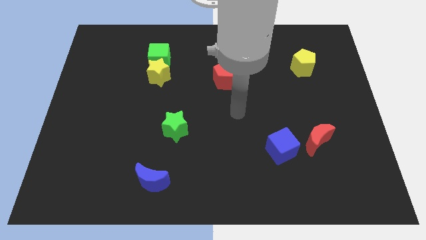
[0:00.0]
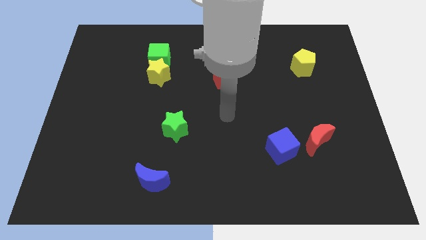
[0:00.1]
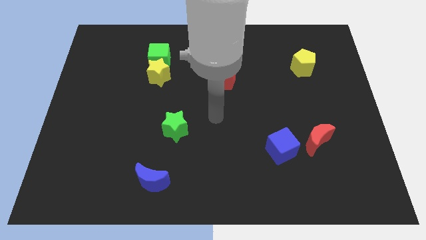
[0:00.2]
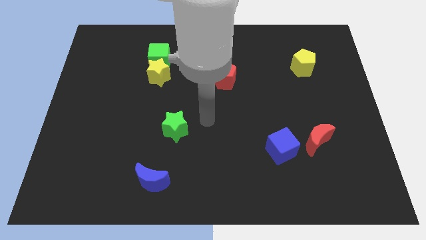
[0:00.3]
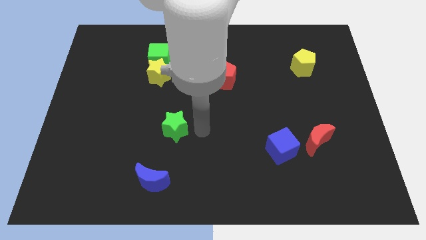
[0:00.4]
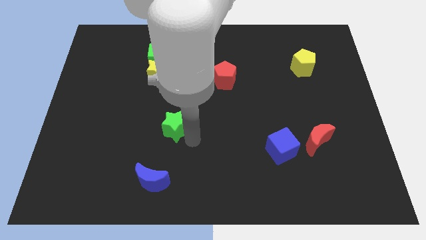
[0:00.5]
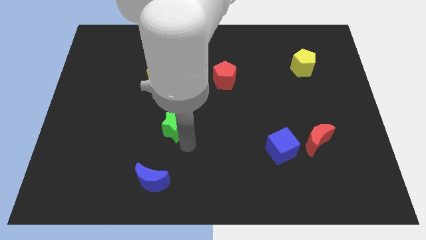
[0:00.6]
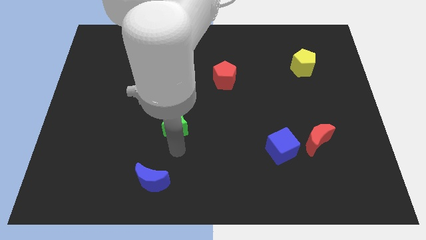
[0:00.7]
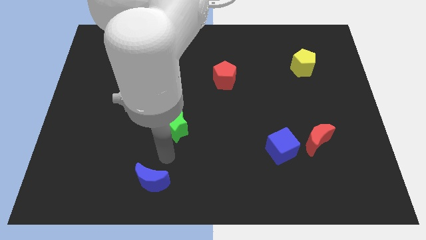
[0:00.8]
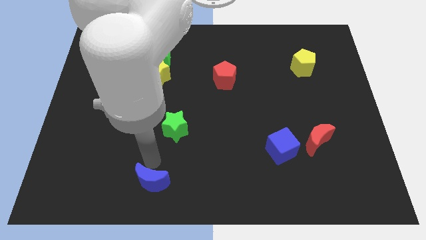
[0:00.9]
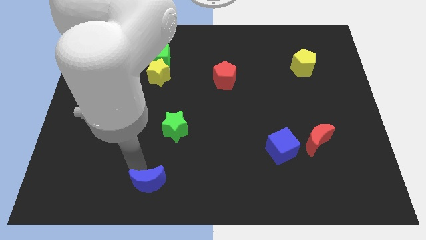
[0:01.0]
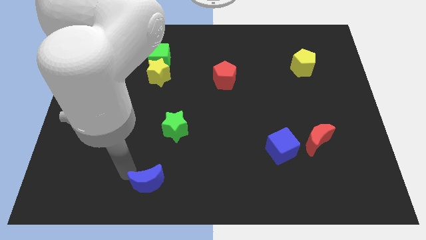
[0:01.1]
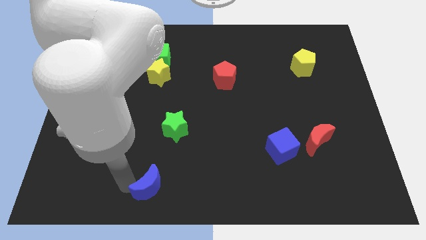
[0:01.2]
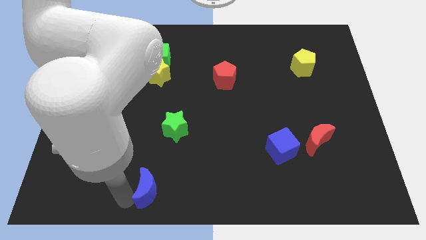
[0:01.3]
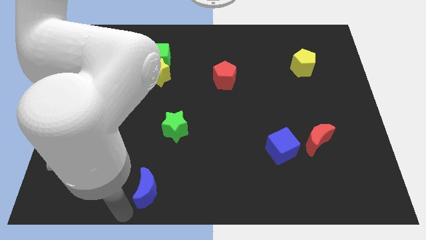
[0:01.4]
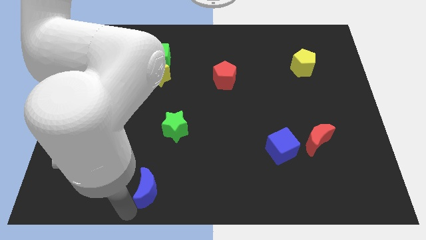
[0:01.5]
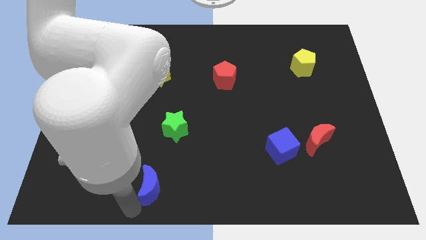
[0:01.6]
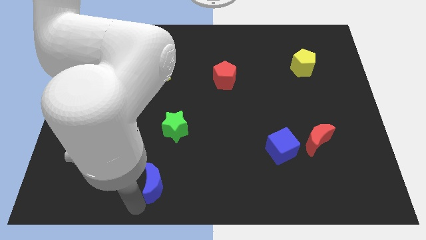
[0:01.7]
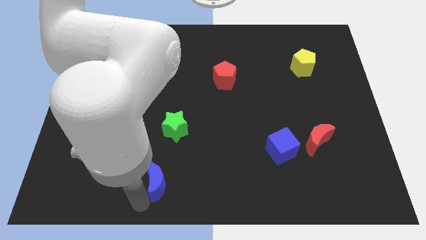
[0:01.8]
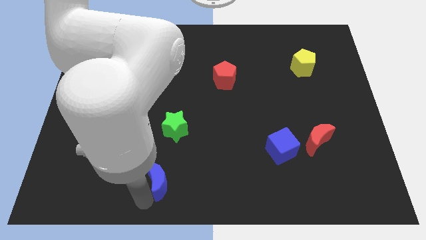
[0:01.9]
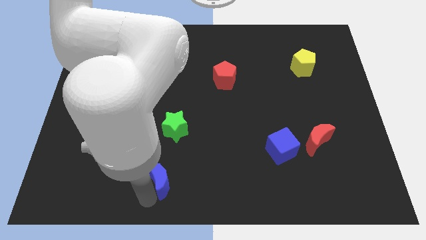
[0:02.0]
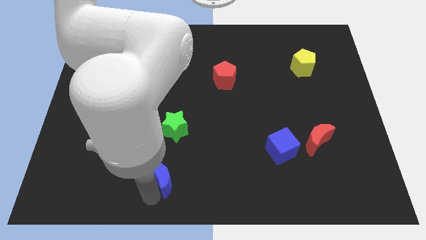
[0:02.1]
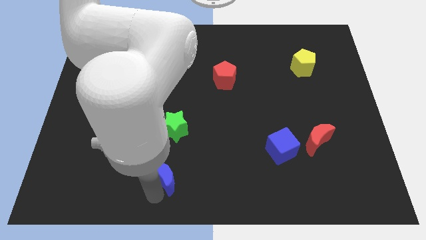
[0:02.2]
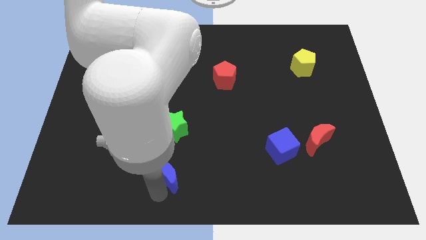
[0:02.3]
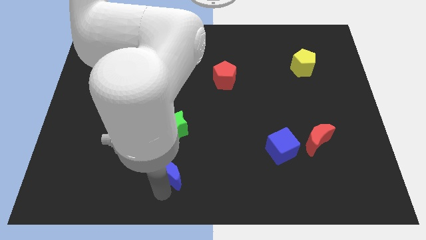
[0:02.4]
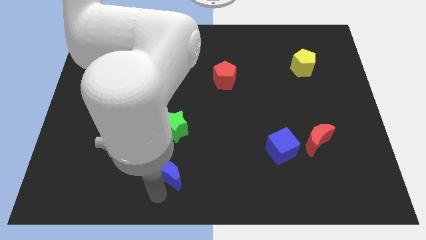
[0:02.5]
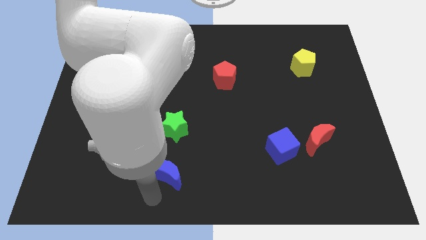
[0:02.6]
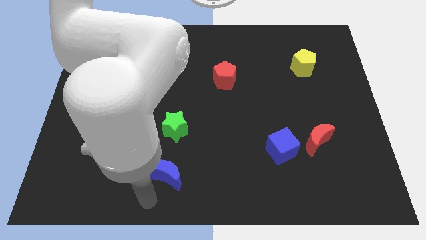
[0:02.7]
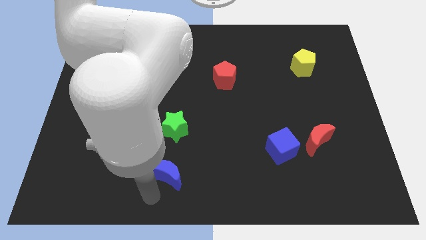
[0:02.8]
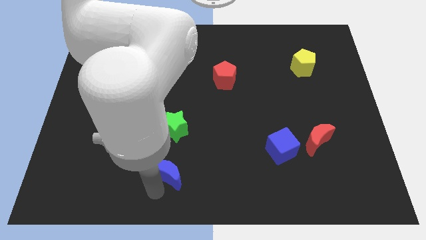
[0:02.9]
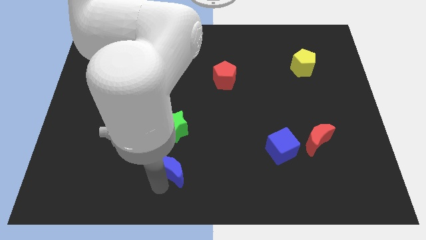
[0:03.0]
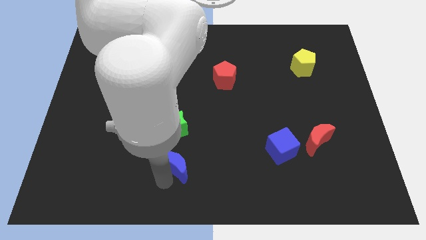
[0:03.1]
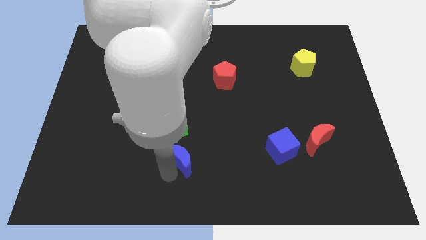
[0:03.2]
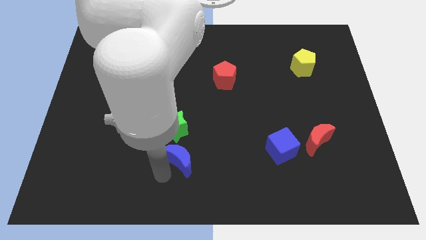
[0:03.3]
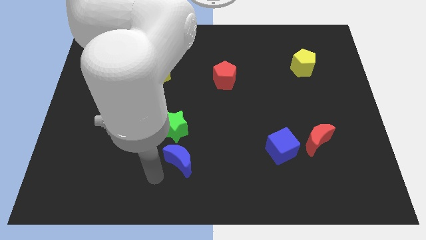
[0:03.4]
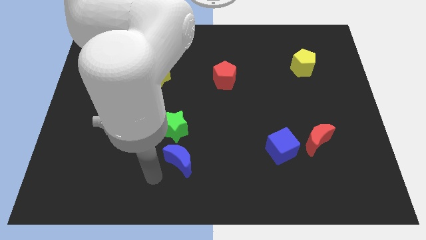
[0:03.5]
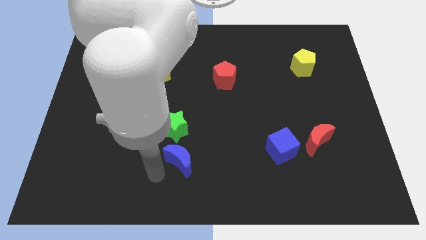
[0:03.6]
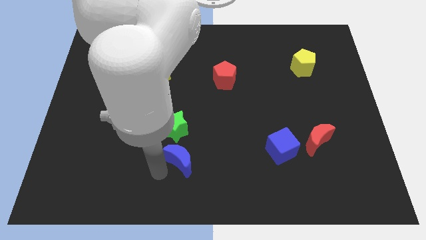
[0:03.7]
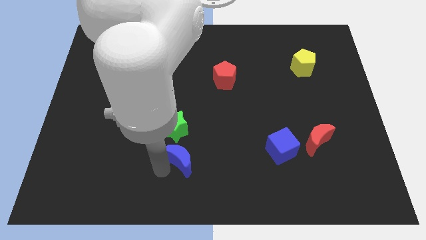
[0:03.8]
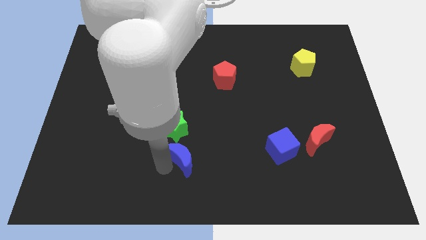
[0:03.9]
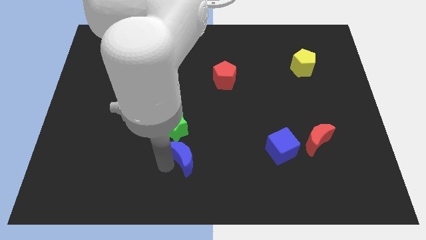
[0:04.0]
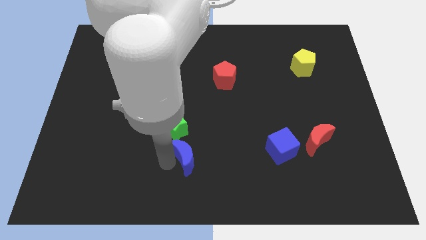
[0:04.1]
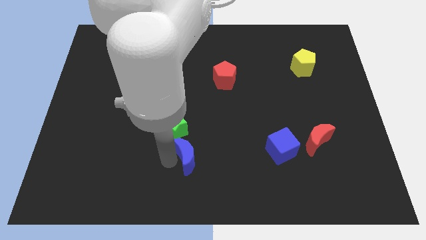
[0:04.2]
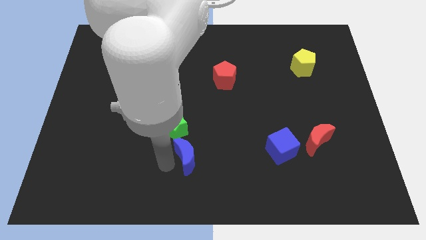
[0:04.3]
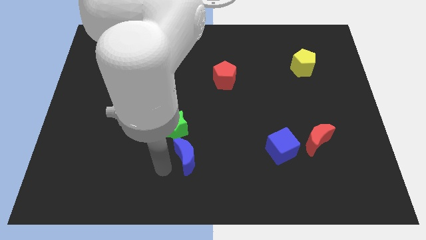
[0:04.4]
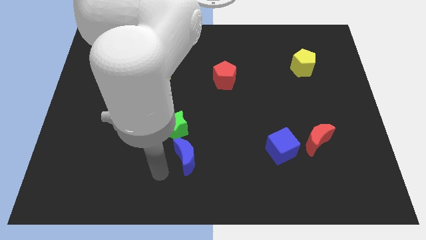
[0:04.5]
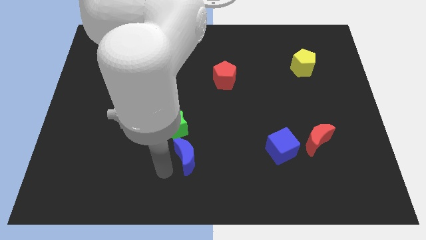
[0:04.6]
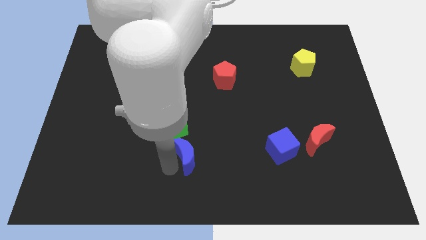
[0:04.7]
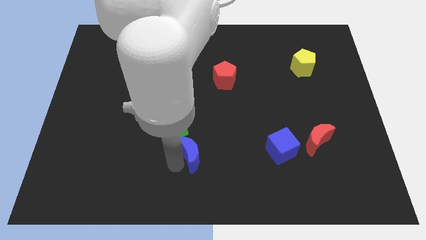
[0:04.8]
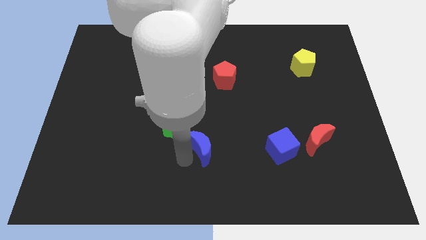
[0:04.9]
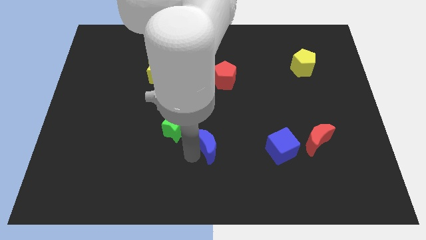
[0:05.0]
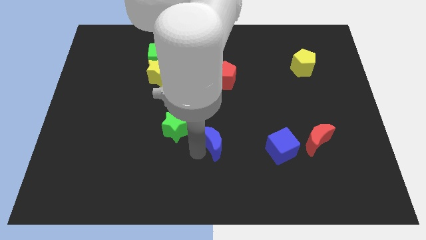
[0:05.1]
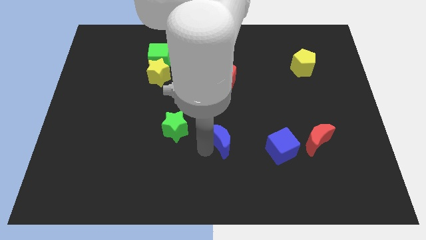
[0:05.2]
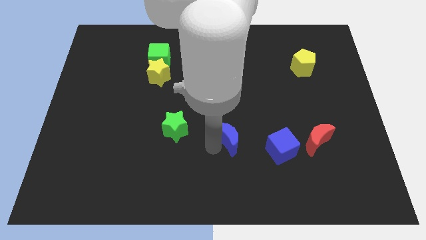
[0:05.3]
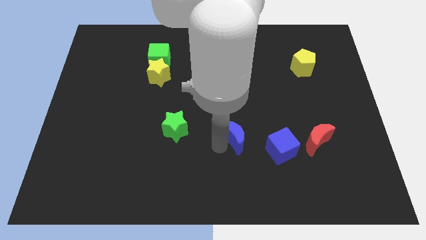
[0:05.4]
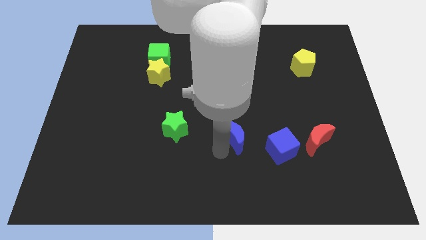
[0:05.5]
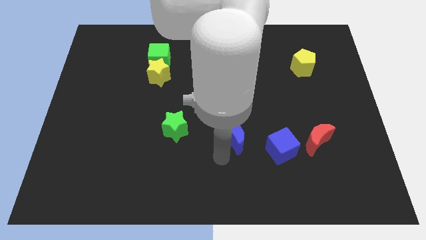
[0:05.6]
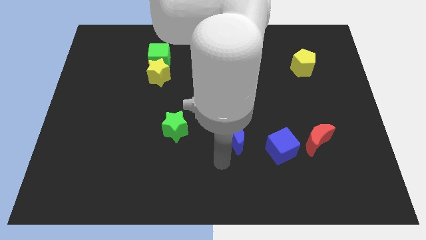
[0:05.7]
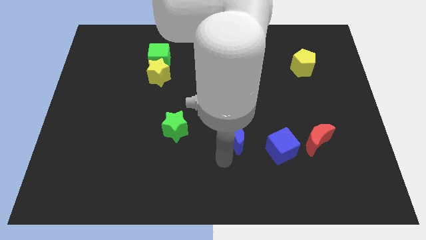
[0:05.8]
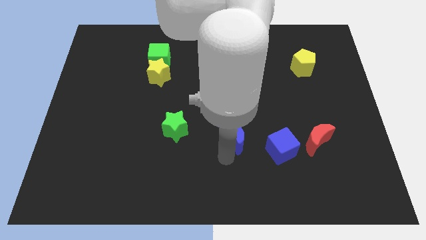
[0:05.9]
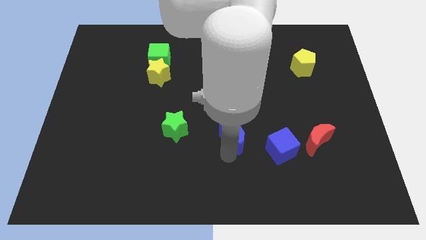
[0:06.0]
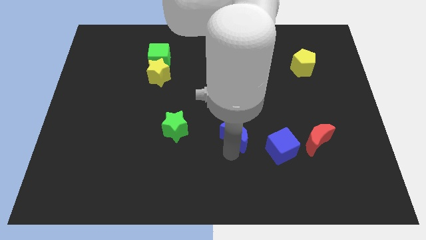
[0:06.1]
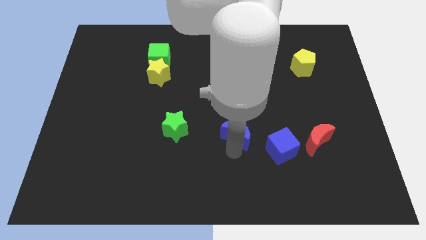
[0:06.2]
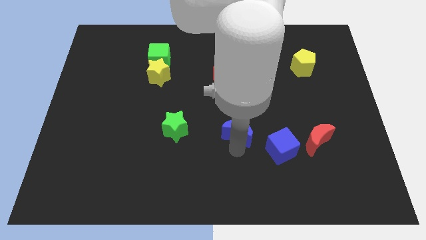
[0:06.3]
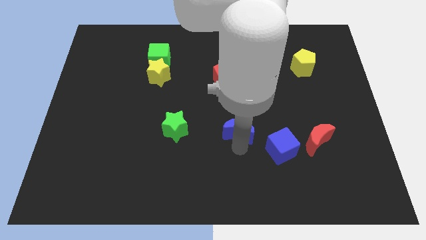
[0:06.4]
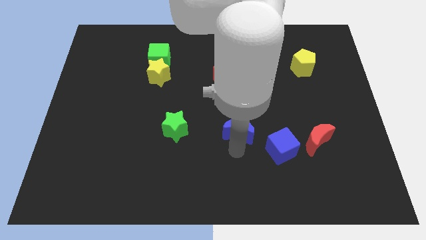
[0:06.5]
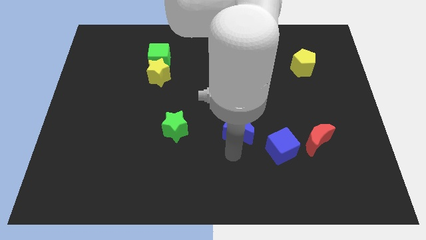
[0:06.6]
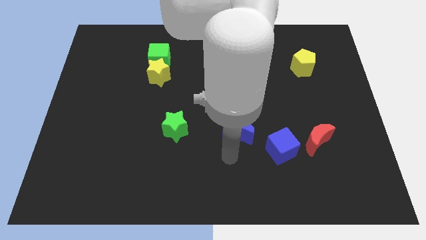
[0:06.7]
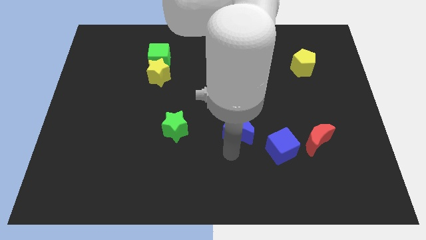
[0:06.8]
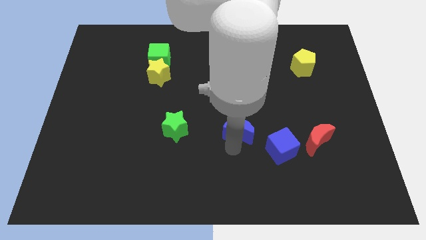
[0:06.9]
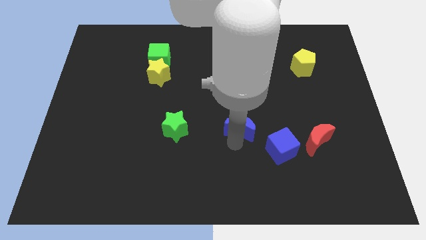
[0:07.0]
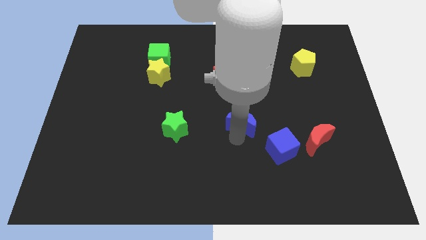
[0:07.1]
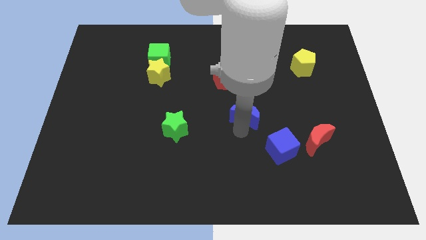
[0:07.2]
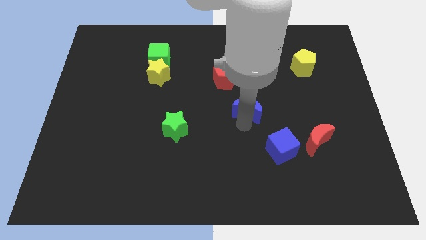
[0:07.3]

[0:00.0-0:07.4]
put the blue moon to the bottom right side of the red pentagon
